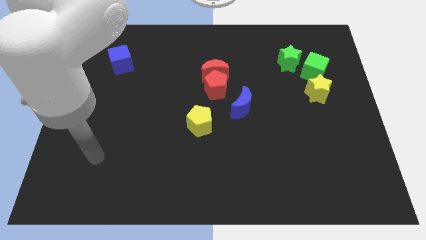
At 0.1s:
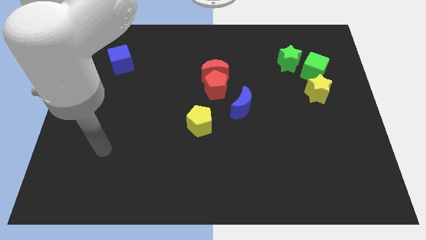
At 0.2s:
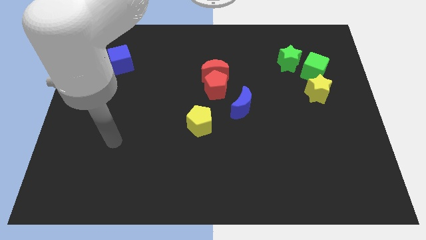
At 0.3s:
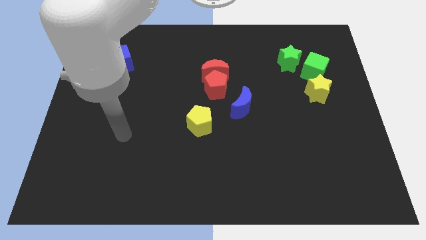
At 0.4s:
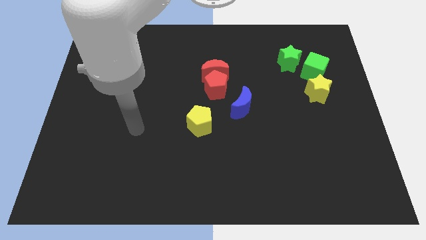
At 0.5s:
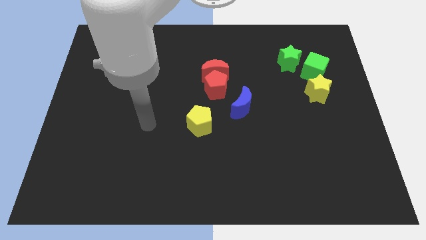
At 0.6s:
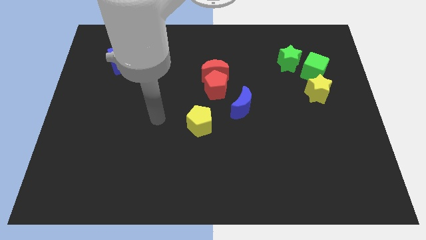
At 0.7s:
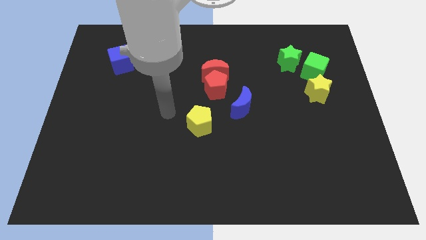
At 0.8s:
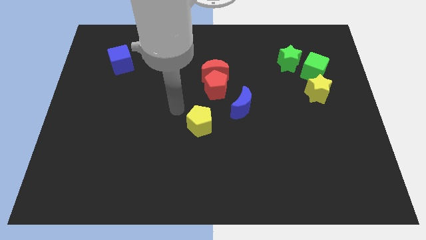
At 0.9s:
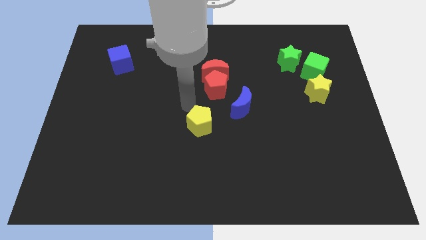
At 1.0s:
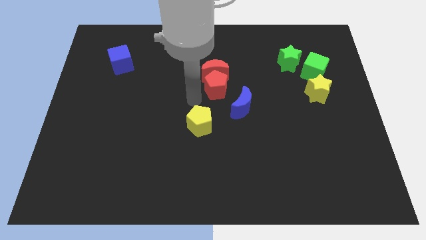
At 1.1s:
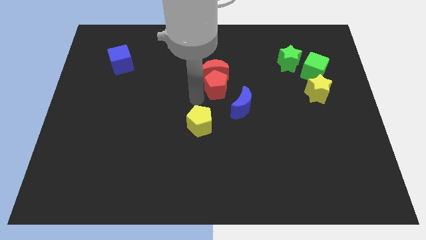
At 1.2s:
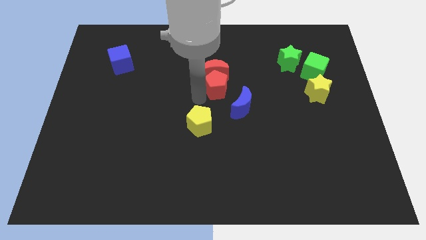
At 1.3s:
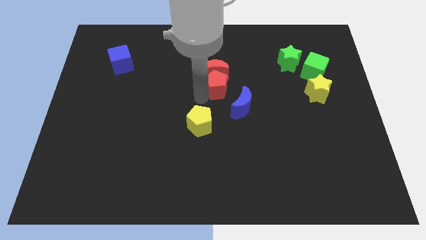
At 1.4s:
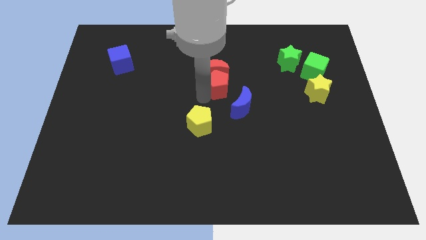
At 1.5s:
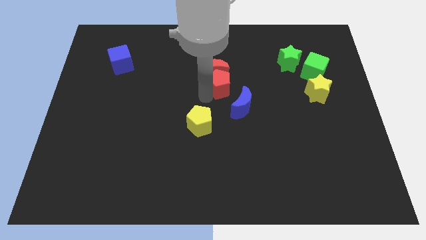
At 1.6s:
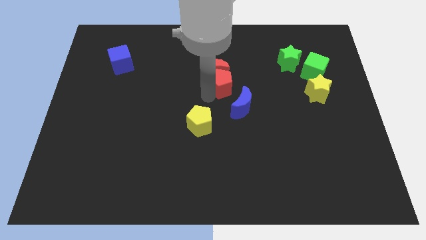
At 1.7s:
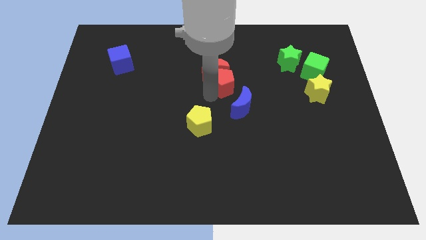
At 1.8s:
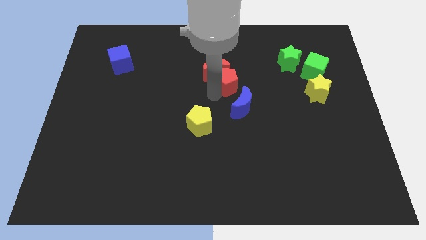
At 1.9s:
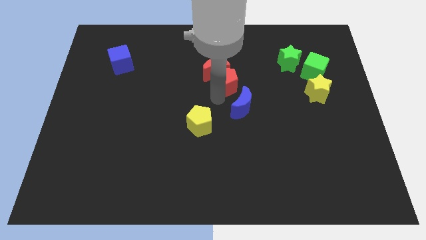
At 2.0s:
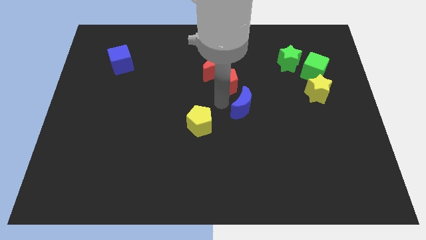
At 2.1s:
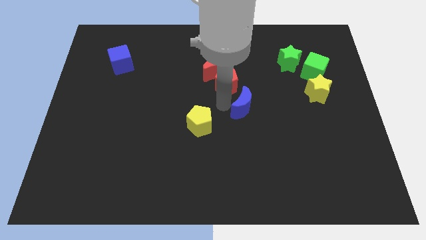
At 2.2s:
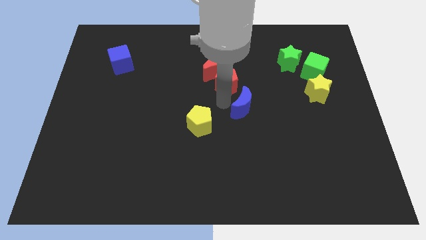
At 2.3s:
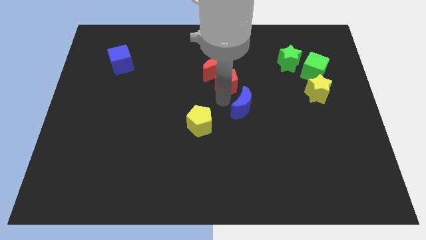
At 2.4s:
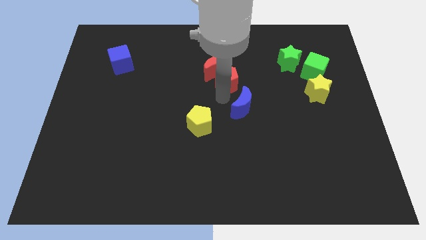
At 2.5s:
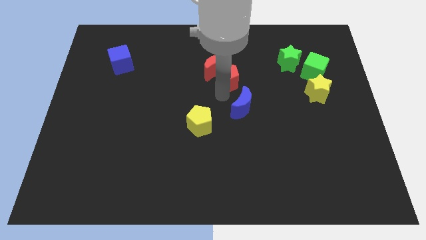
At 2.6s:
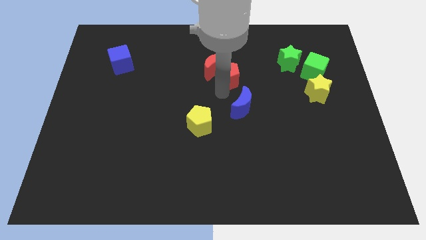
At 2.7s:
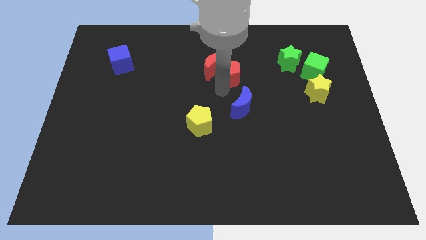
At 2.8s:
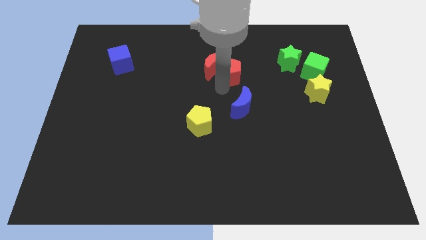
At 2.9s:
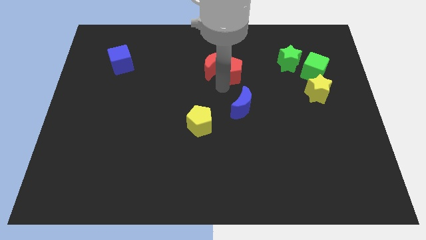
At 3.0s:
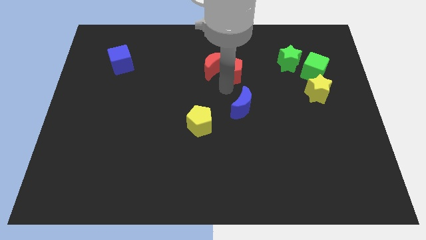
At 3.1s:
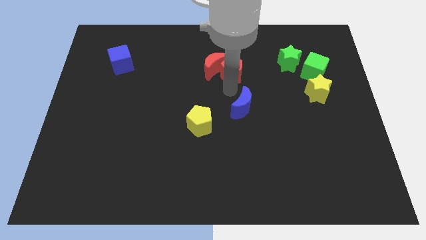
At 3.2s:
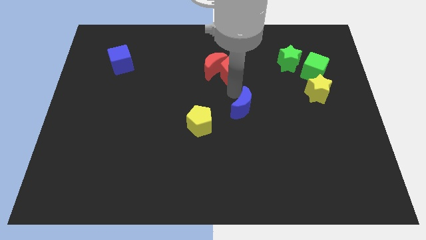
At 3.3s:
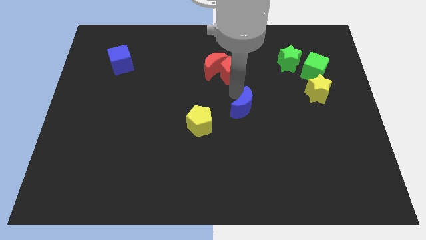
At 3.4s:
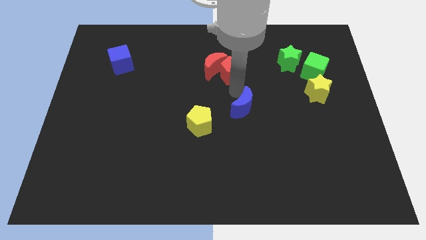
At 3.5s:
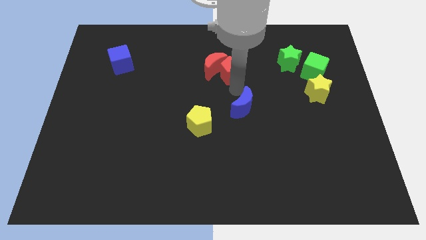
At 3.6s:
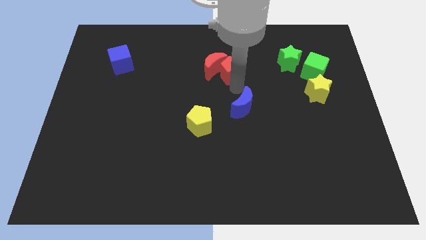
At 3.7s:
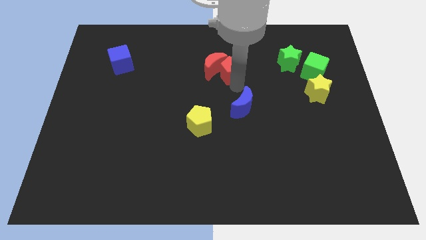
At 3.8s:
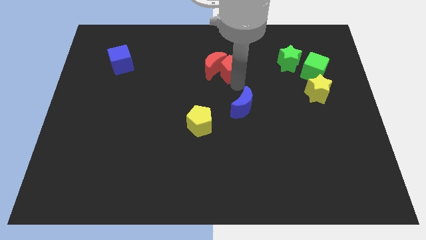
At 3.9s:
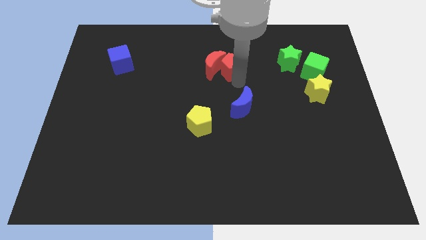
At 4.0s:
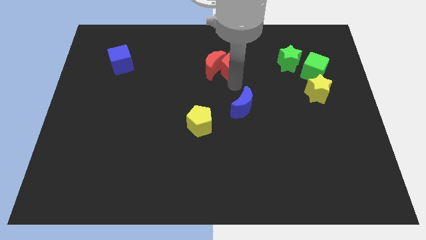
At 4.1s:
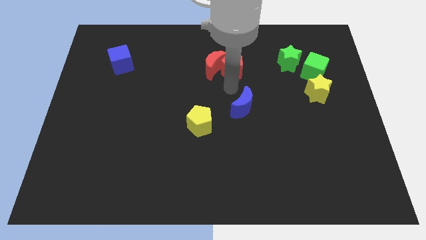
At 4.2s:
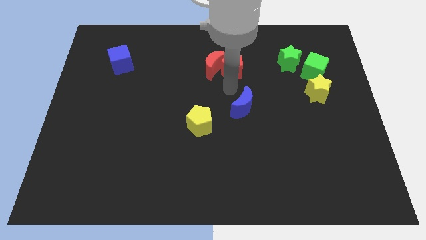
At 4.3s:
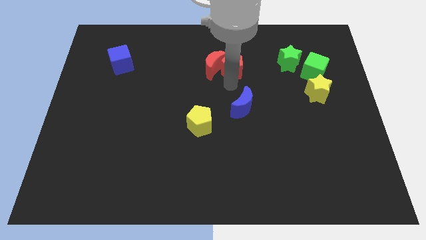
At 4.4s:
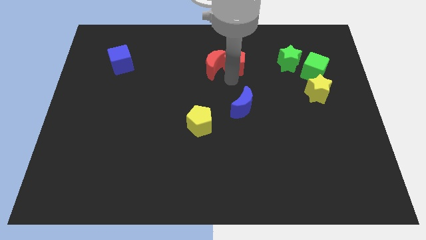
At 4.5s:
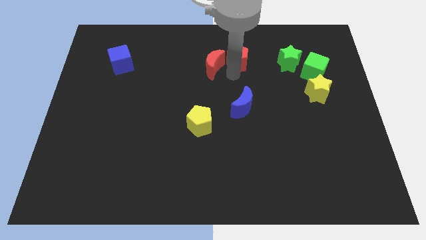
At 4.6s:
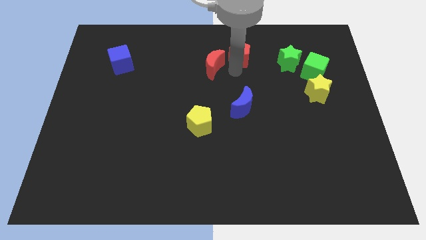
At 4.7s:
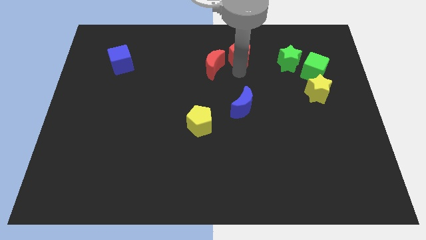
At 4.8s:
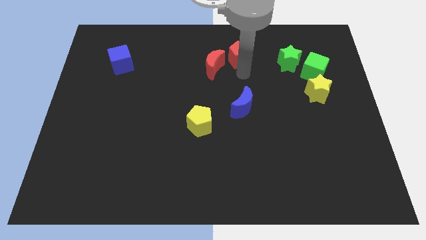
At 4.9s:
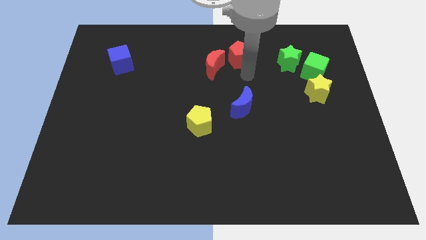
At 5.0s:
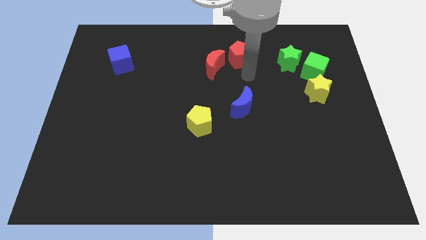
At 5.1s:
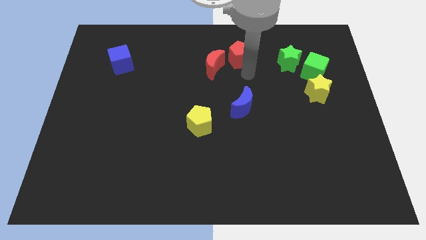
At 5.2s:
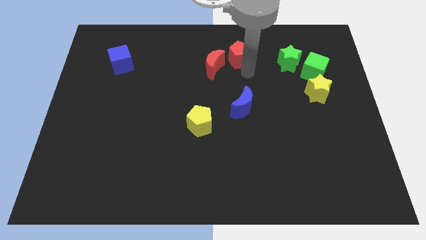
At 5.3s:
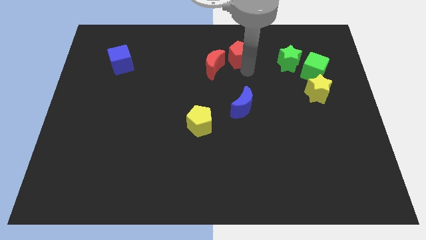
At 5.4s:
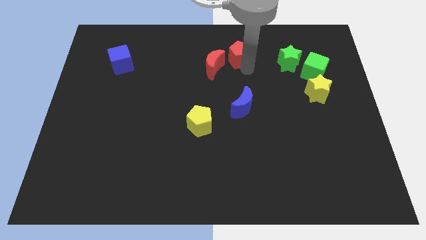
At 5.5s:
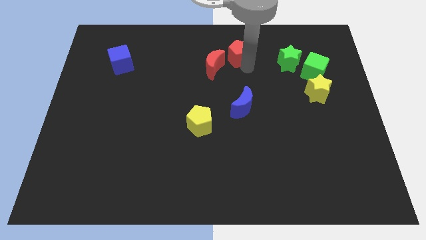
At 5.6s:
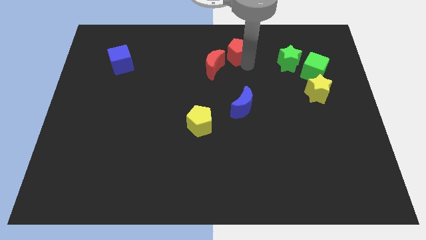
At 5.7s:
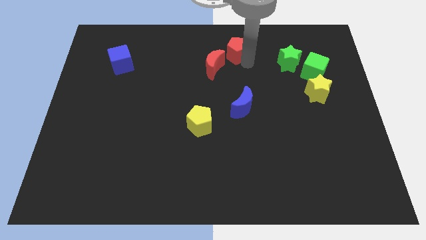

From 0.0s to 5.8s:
slide the red pentagon to the towards your base

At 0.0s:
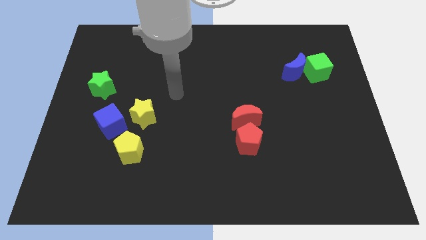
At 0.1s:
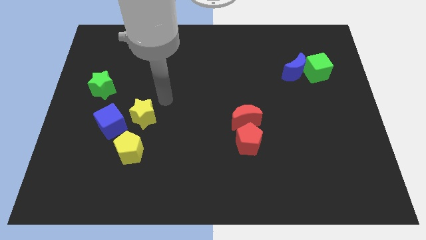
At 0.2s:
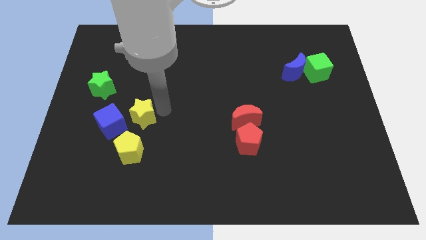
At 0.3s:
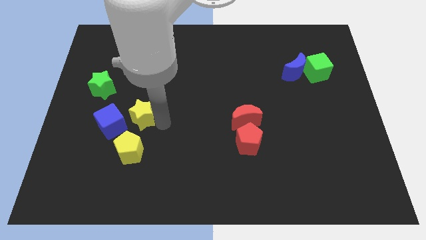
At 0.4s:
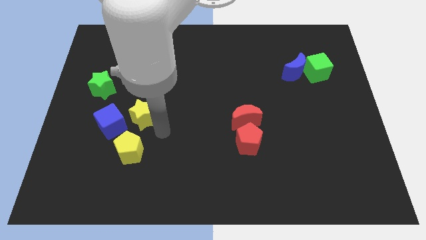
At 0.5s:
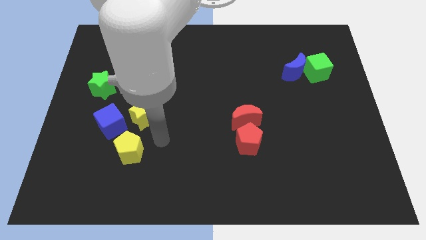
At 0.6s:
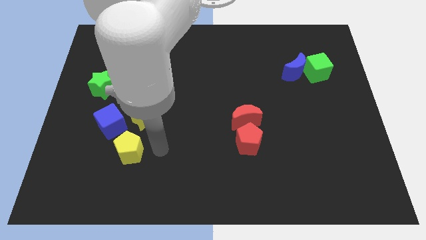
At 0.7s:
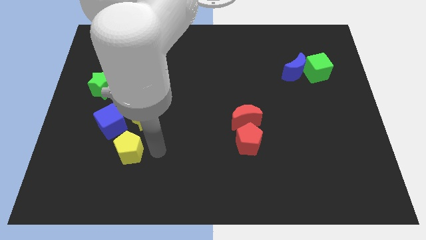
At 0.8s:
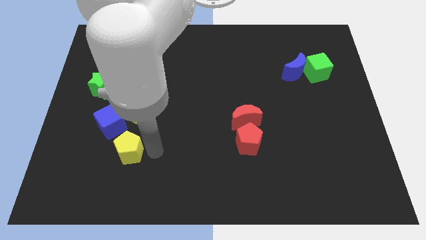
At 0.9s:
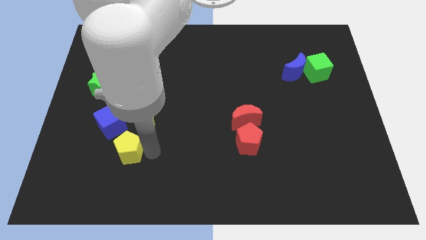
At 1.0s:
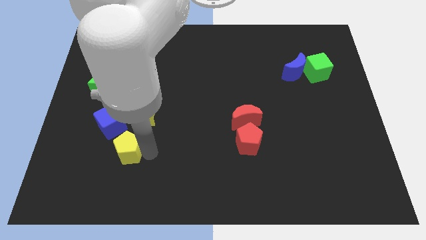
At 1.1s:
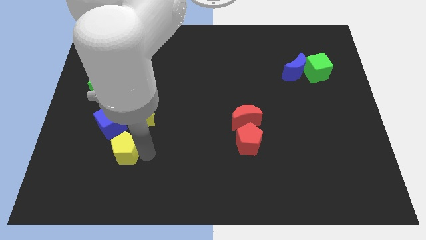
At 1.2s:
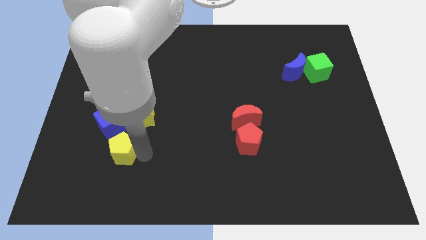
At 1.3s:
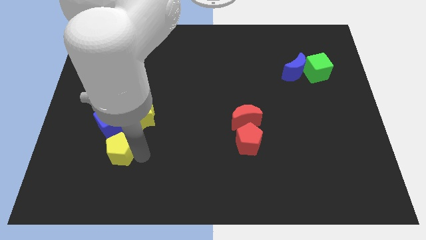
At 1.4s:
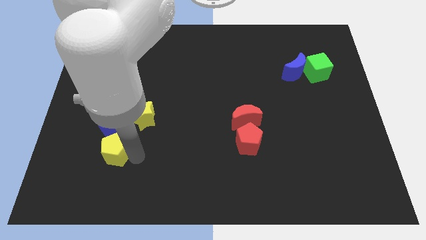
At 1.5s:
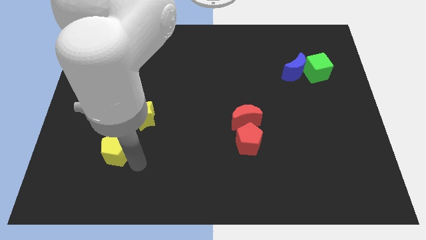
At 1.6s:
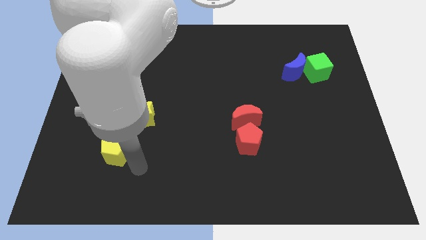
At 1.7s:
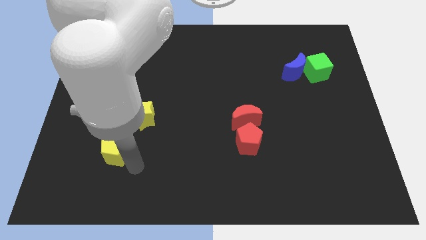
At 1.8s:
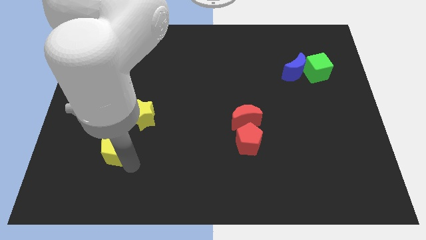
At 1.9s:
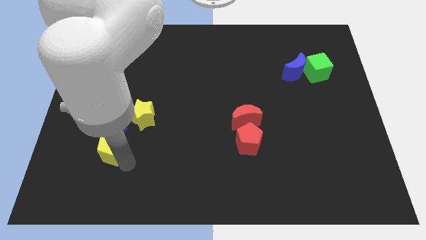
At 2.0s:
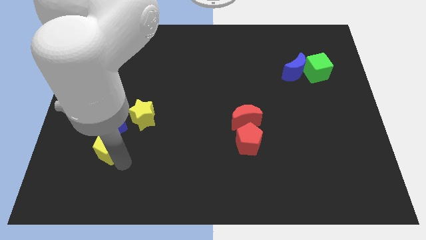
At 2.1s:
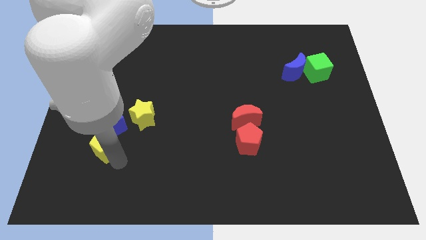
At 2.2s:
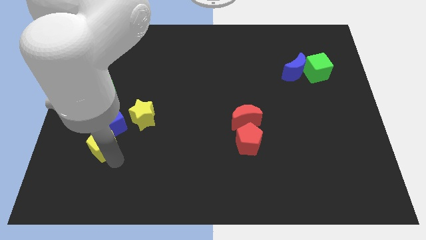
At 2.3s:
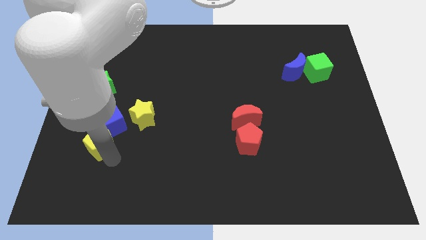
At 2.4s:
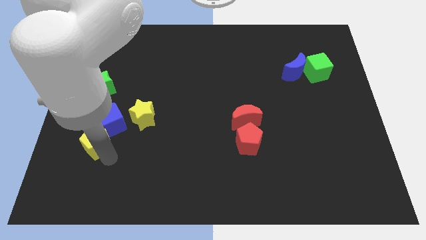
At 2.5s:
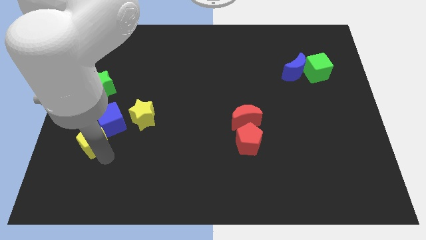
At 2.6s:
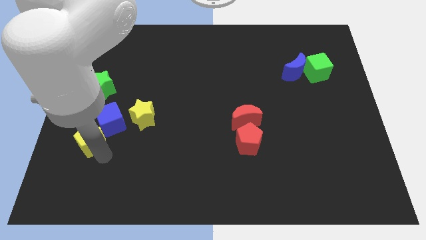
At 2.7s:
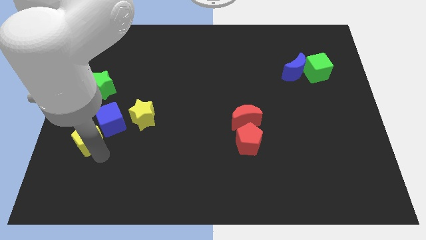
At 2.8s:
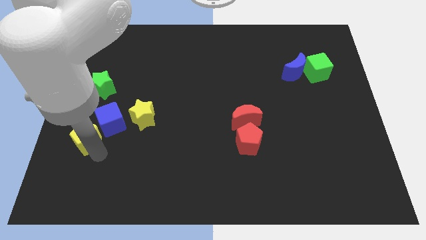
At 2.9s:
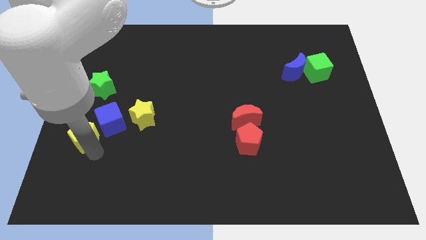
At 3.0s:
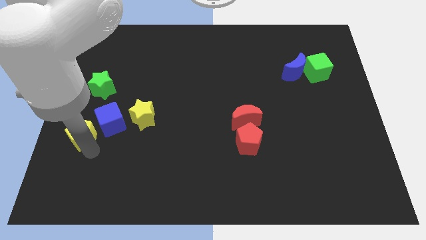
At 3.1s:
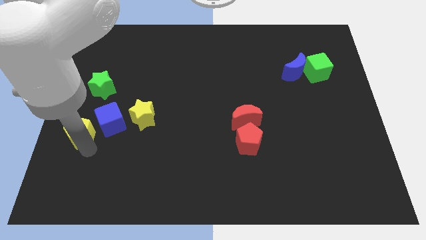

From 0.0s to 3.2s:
slide the yellow pentagon to the center left
